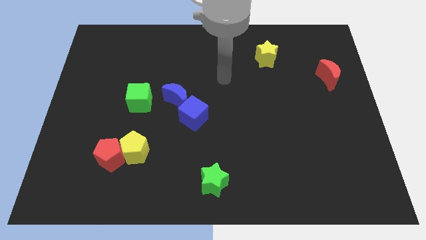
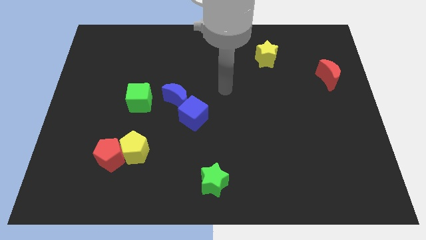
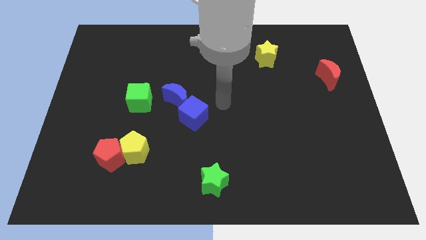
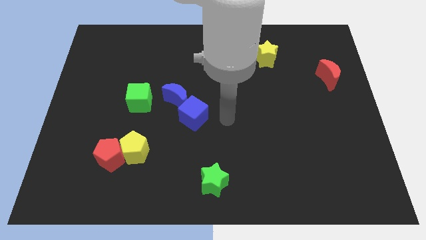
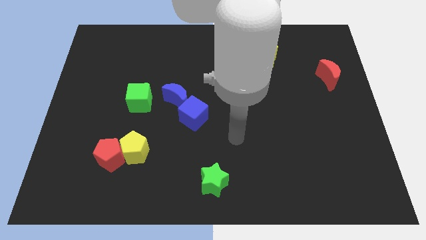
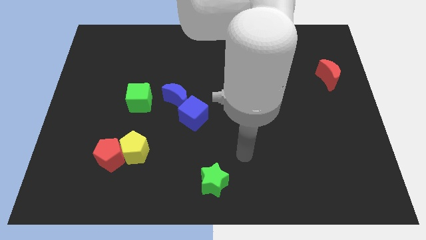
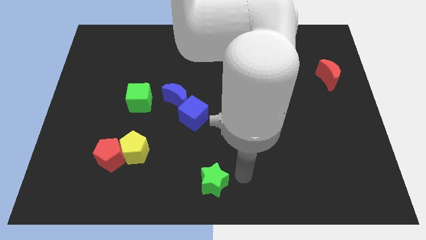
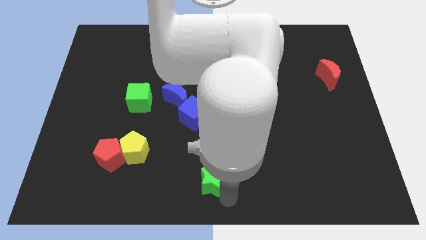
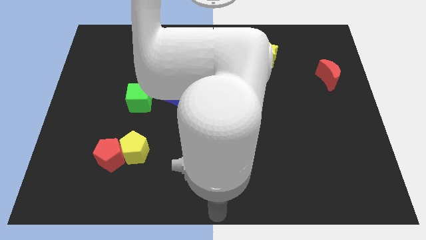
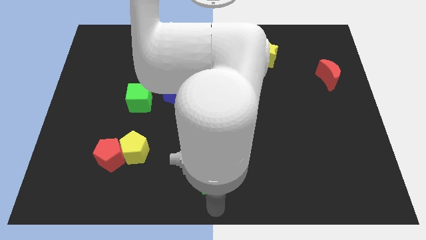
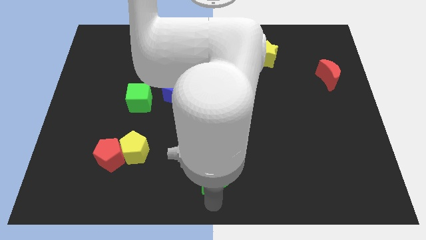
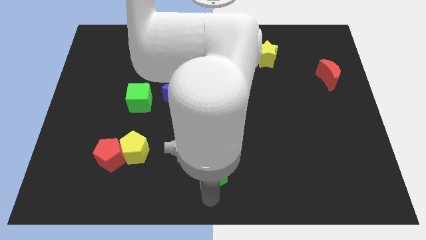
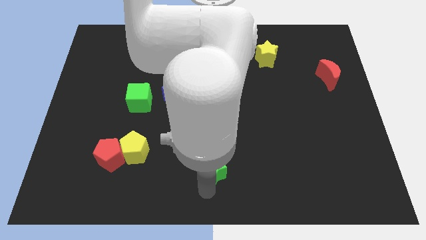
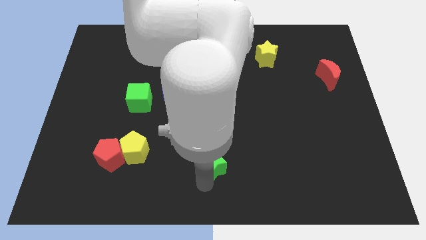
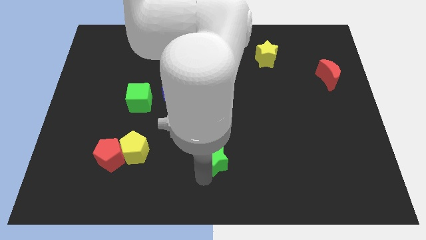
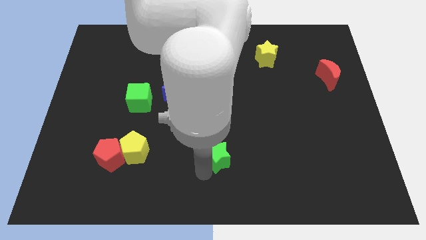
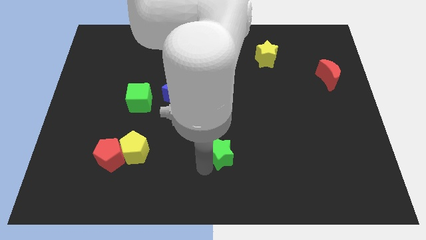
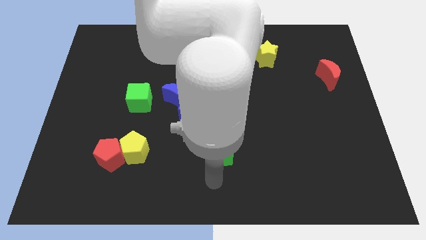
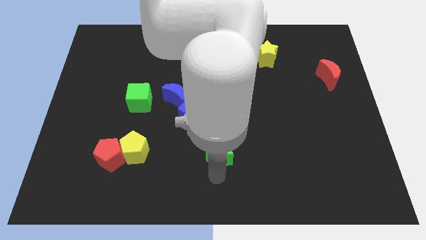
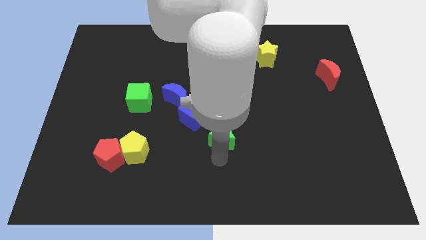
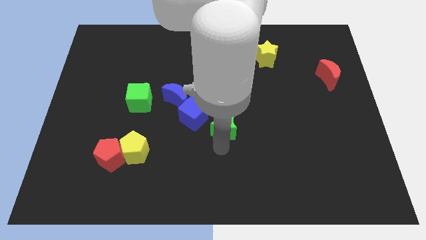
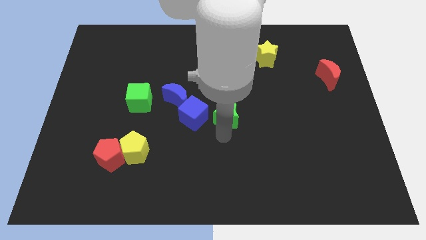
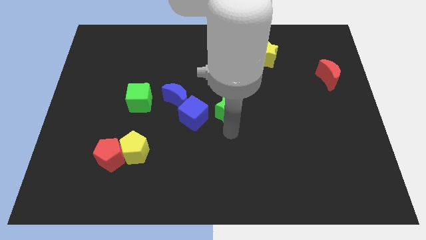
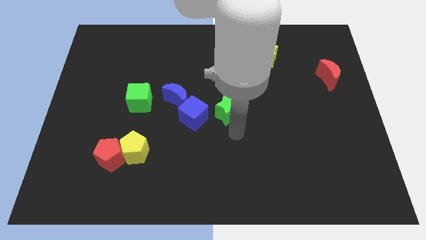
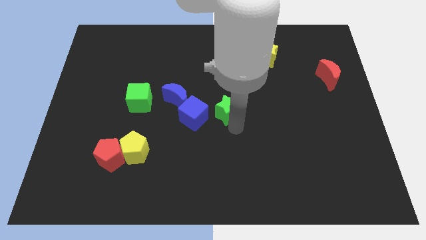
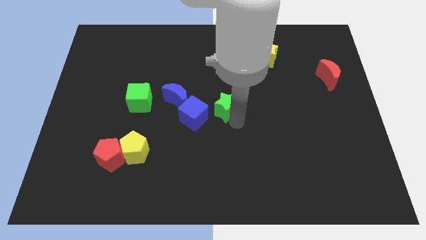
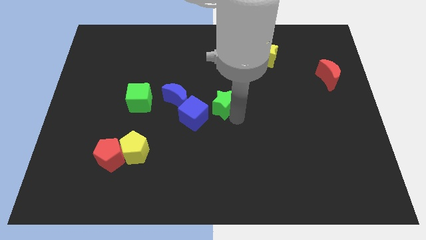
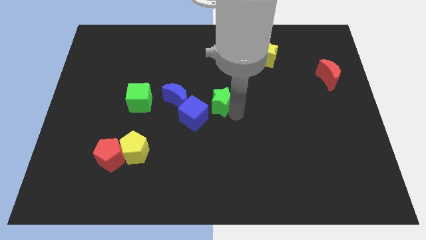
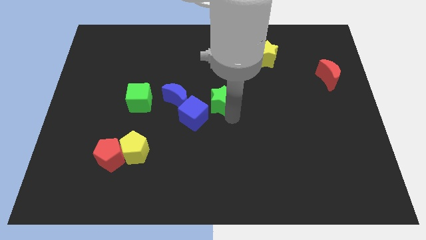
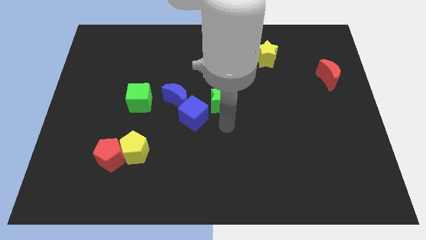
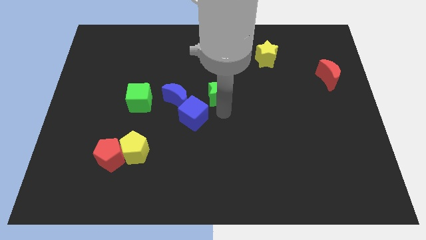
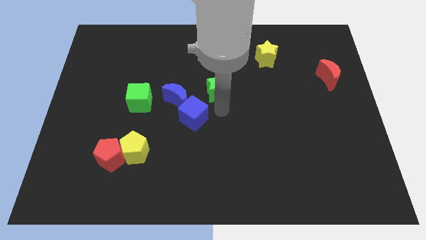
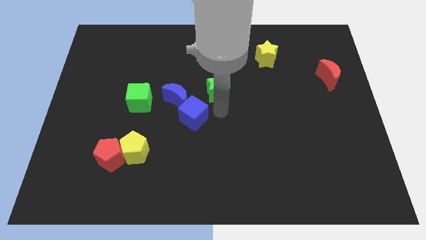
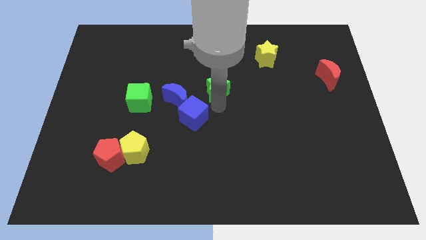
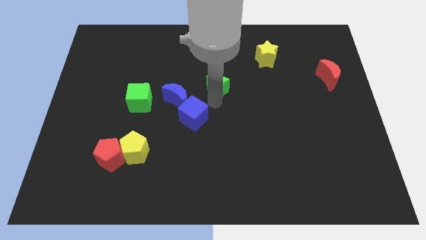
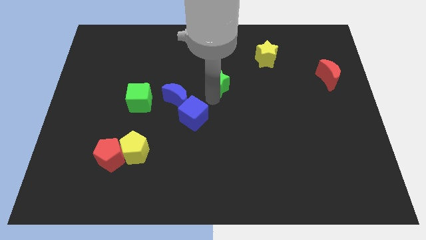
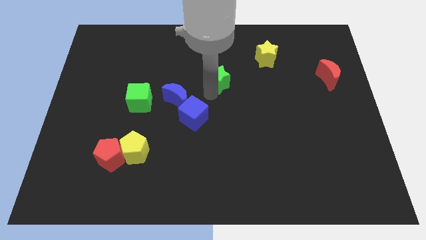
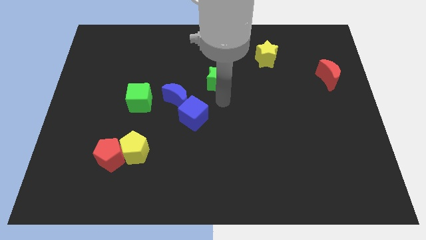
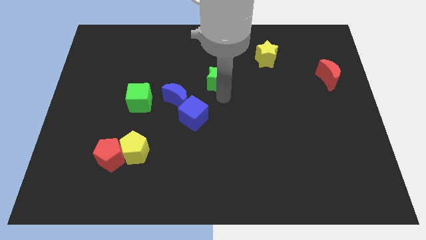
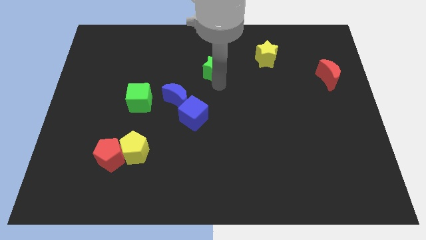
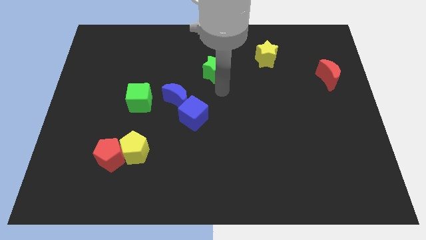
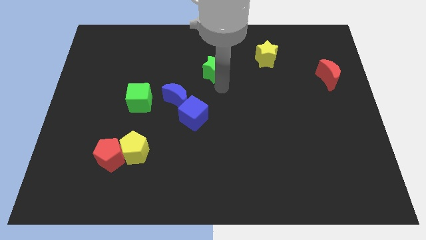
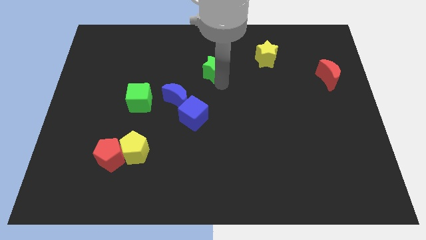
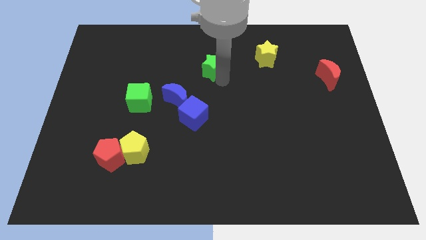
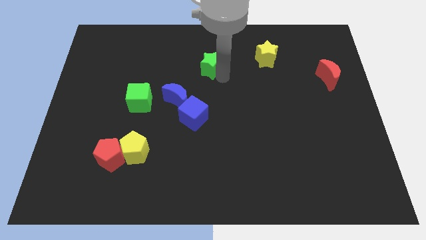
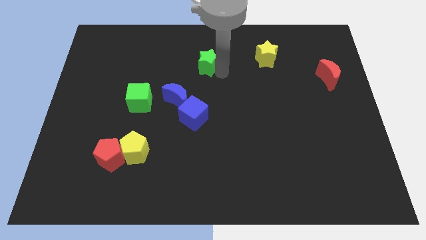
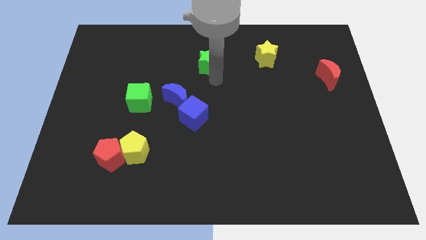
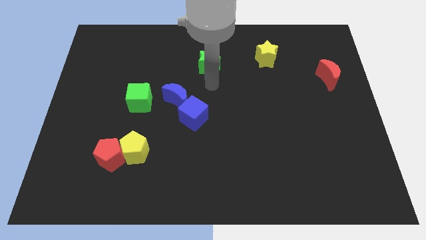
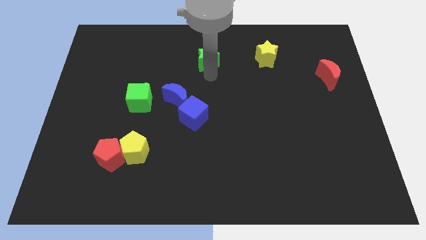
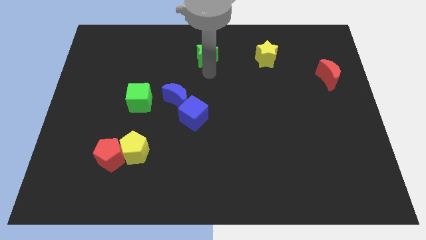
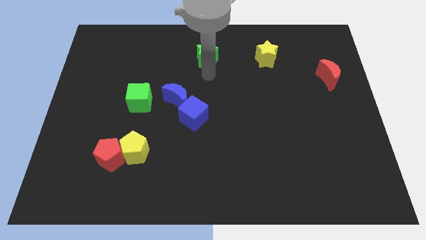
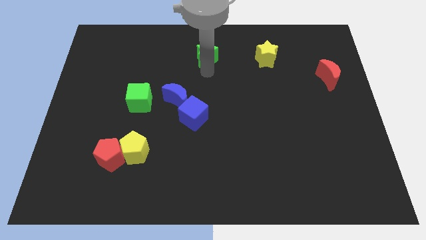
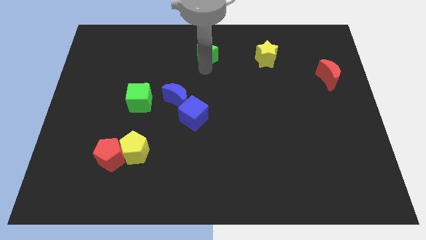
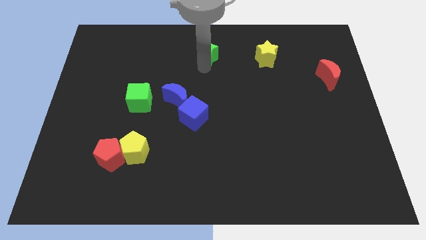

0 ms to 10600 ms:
put the green star to the top side

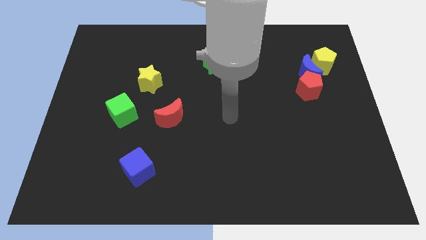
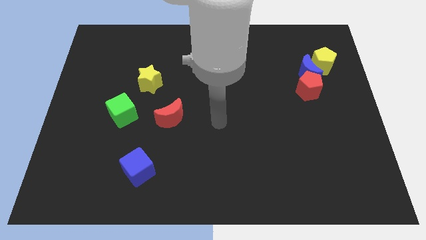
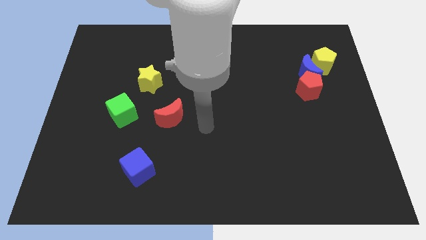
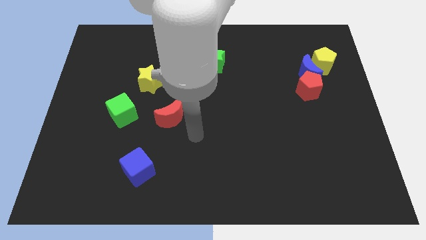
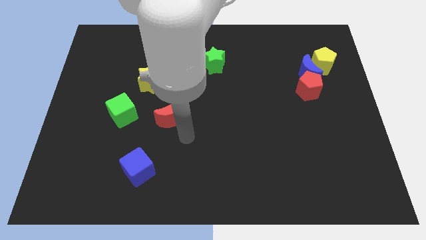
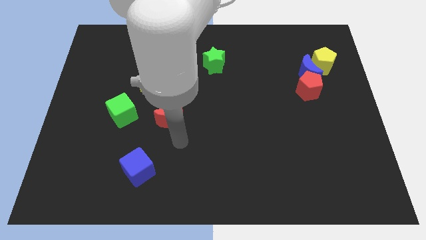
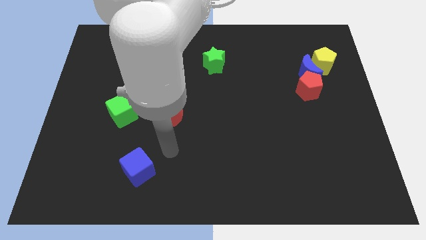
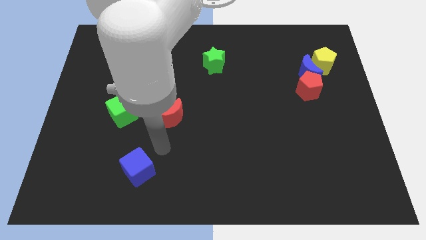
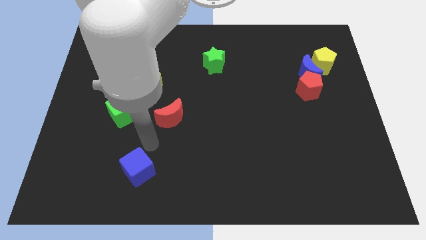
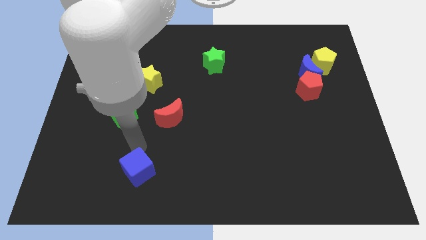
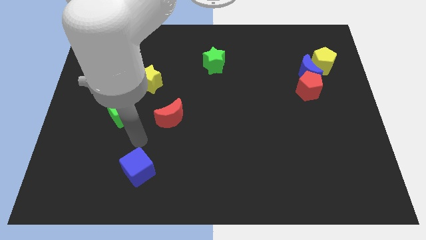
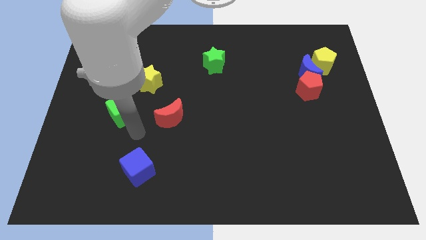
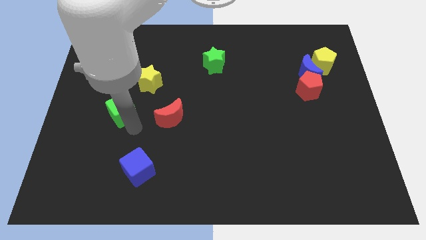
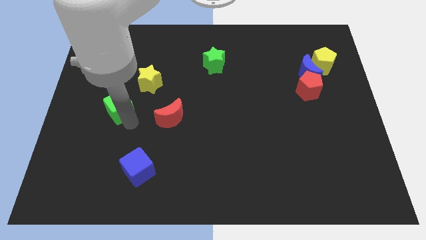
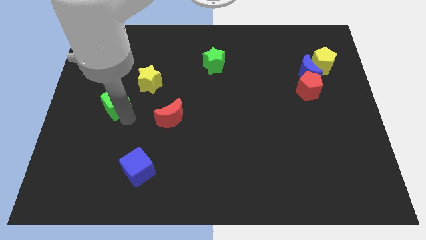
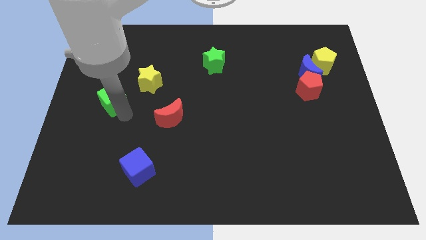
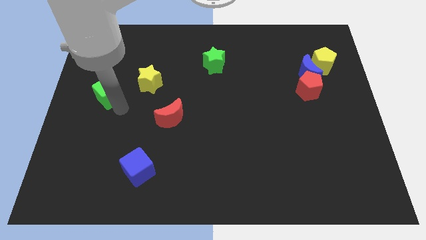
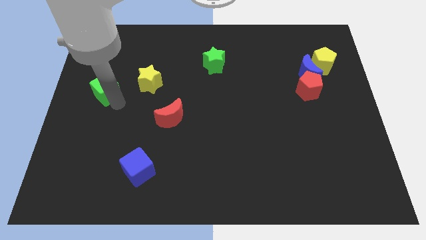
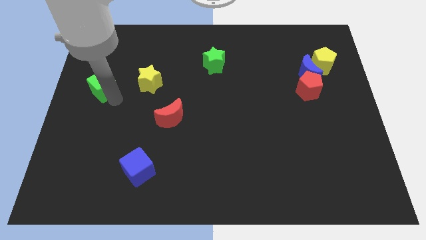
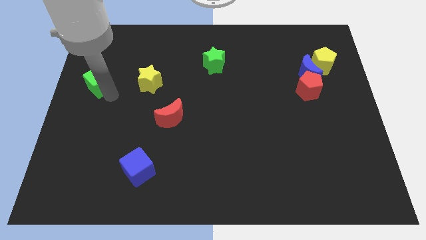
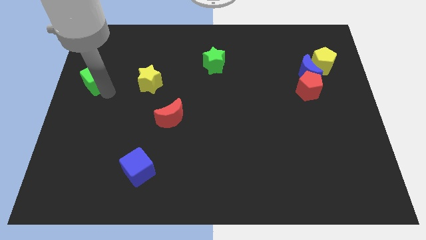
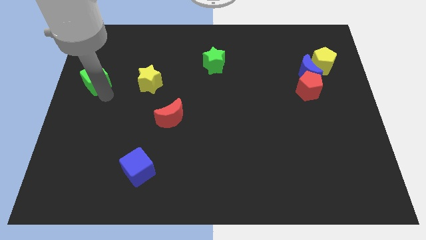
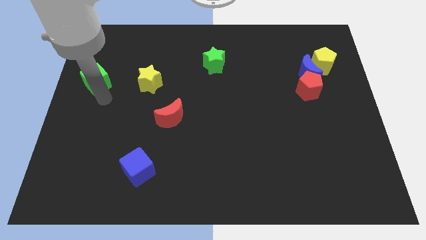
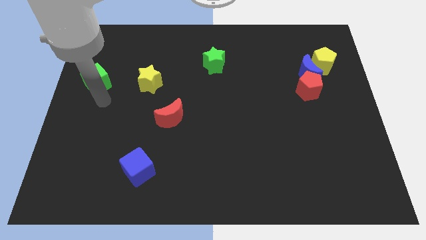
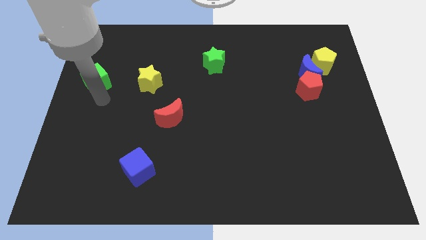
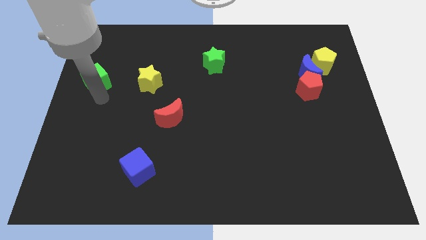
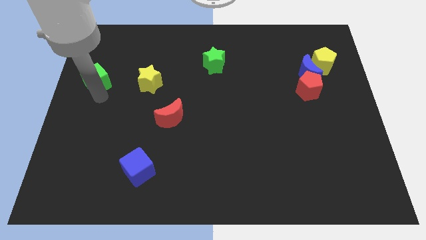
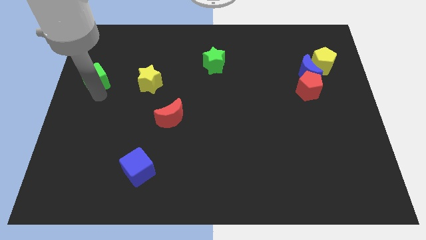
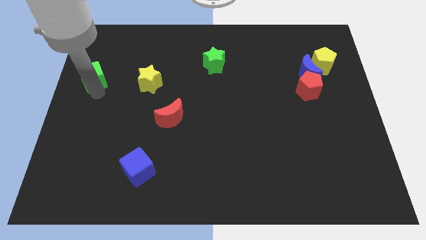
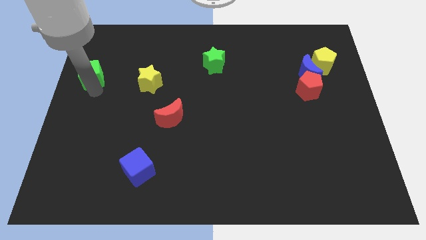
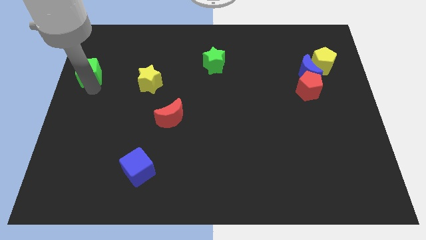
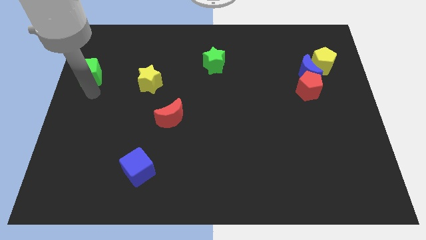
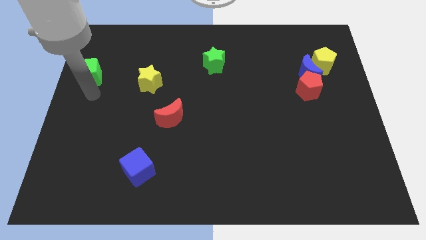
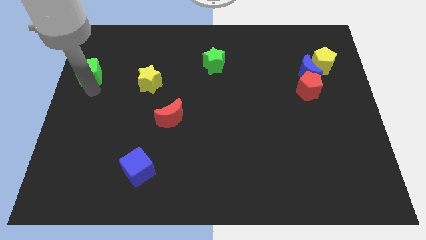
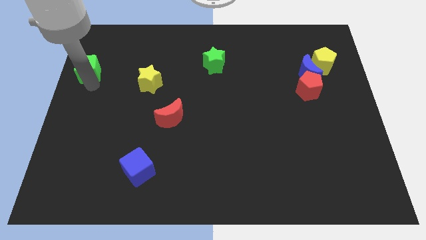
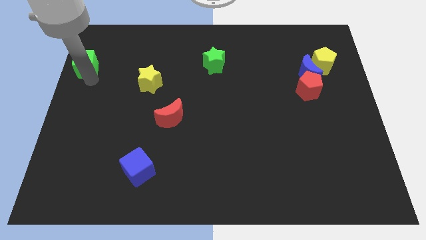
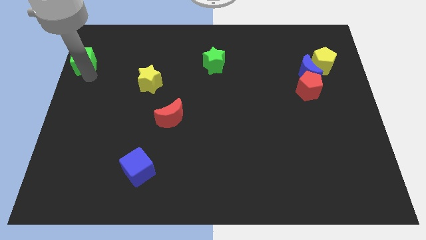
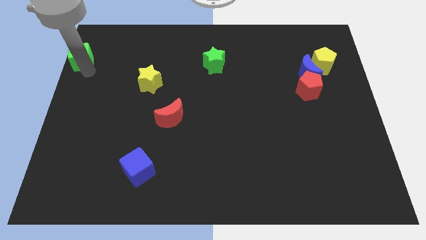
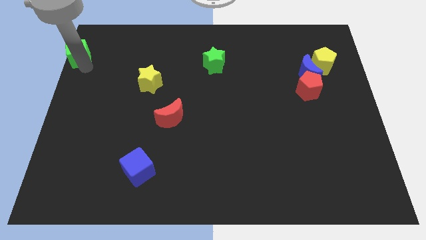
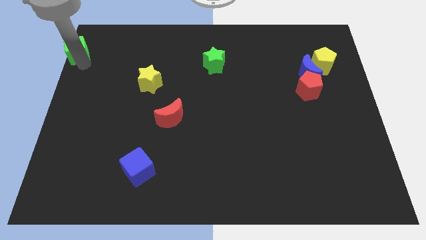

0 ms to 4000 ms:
slide the green cube to the upper left corner
